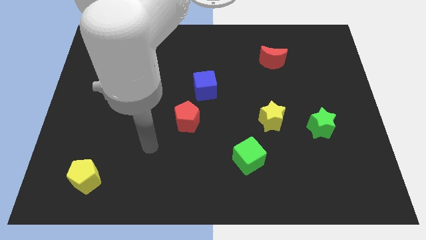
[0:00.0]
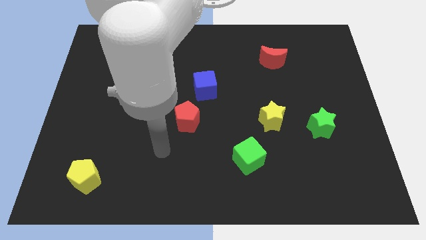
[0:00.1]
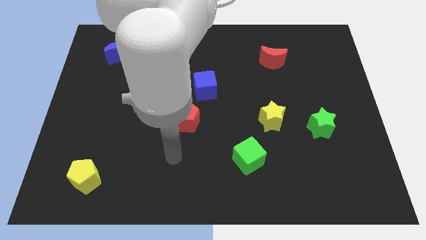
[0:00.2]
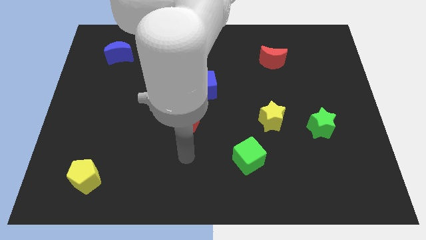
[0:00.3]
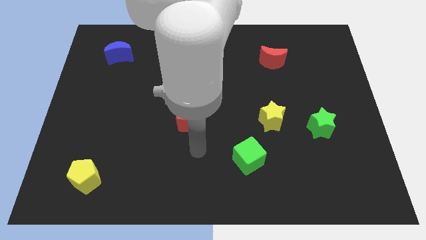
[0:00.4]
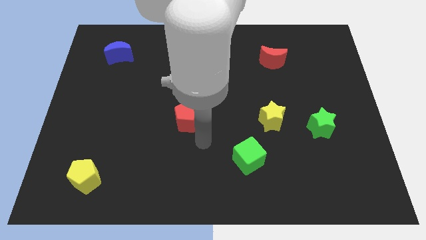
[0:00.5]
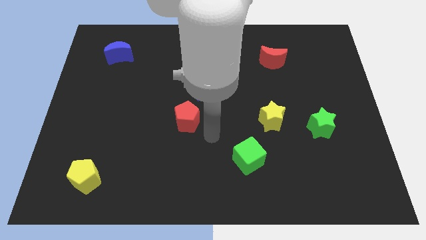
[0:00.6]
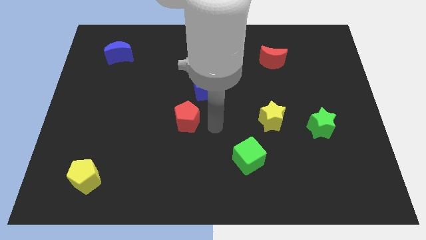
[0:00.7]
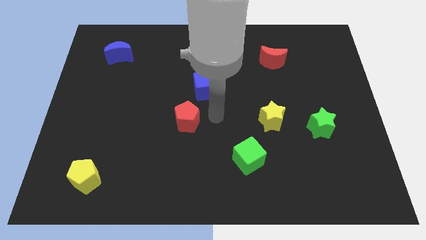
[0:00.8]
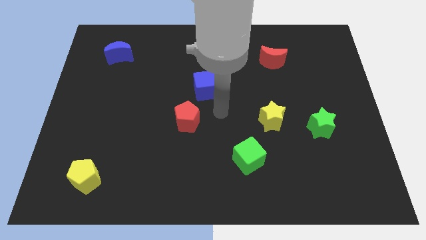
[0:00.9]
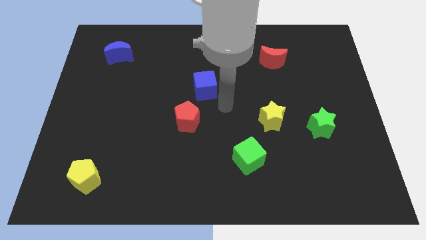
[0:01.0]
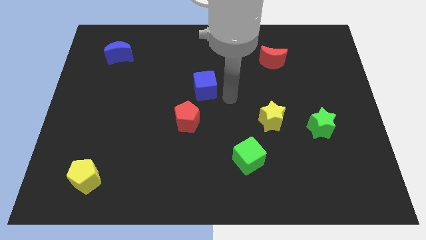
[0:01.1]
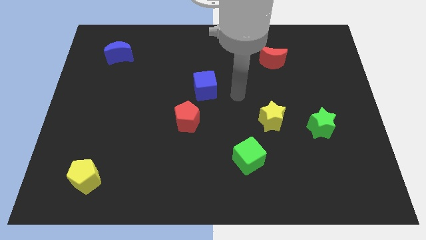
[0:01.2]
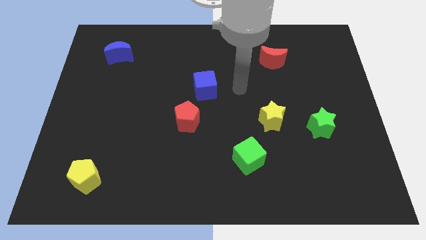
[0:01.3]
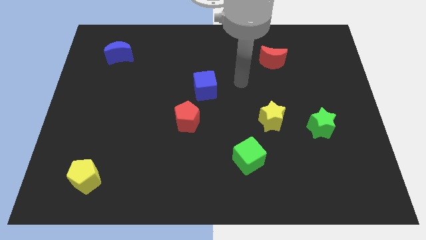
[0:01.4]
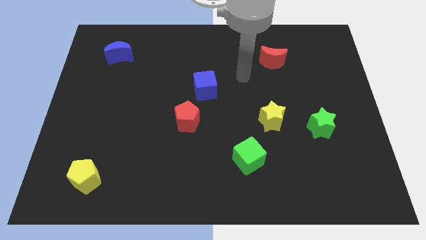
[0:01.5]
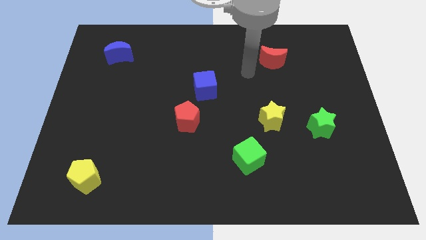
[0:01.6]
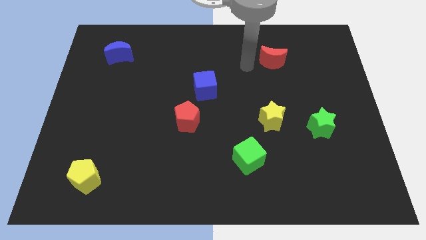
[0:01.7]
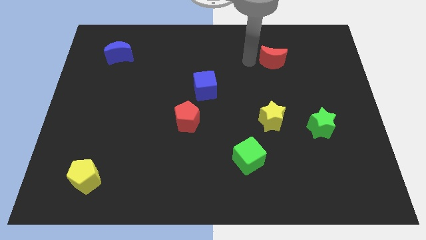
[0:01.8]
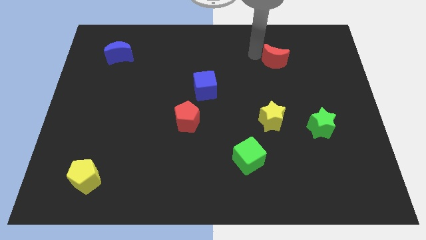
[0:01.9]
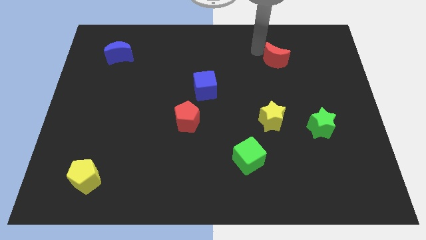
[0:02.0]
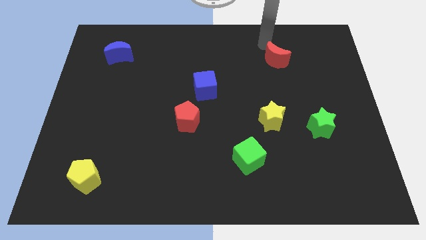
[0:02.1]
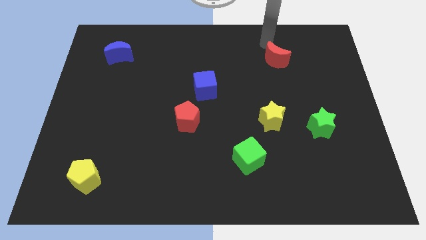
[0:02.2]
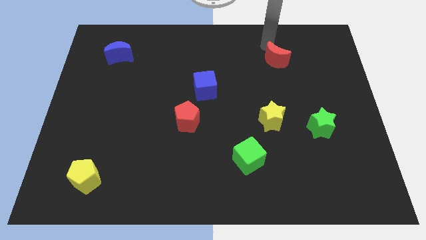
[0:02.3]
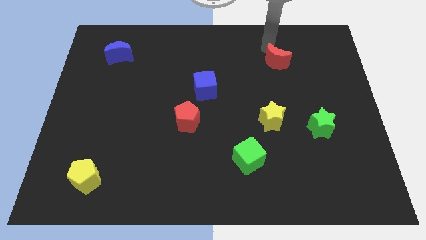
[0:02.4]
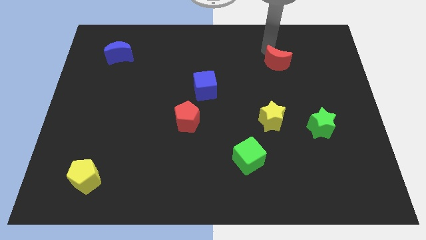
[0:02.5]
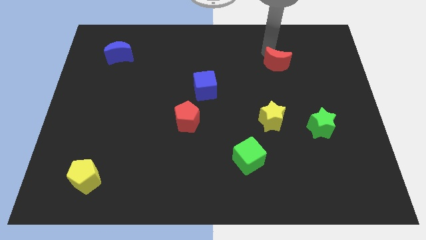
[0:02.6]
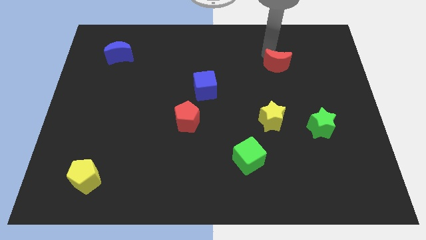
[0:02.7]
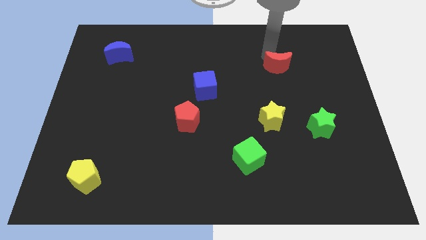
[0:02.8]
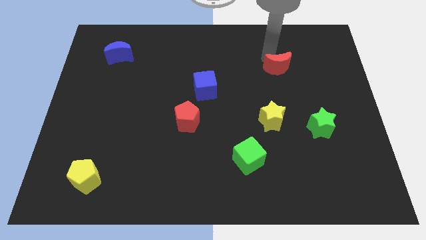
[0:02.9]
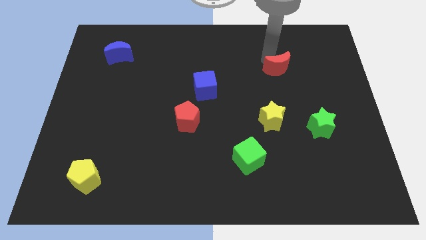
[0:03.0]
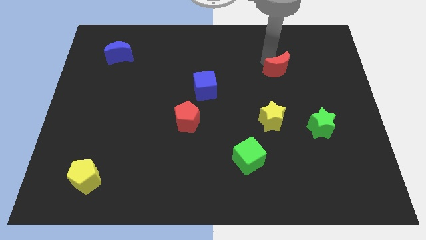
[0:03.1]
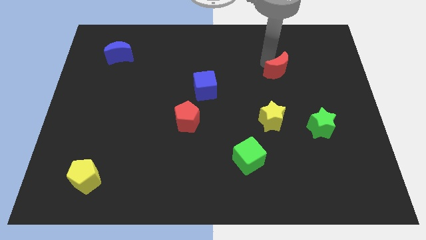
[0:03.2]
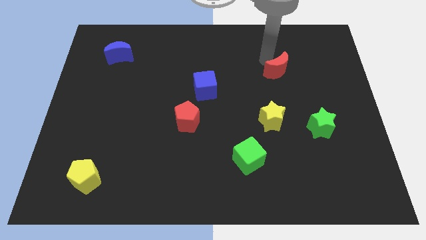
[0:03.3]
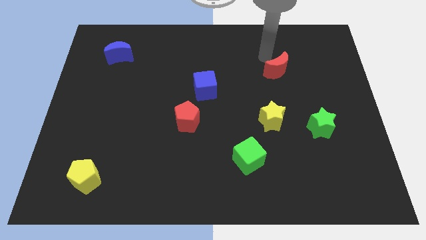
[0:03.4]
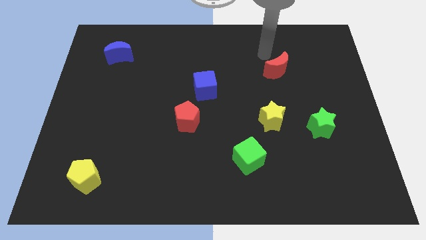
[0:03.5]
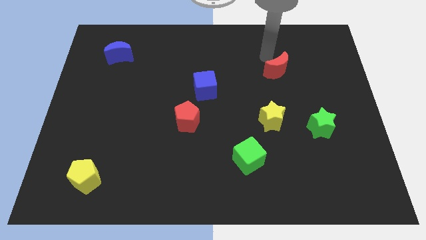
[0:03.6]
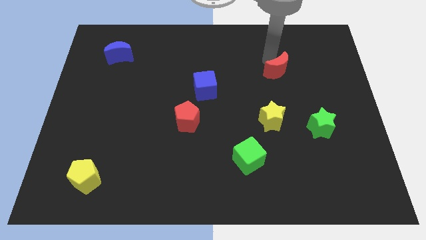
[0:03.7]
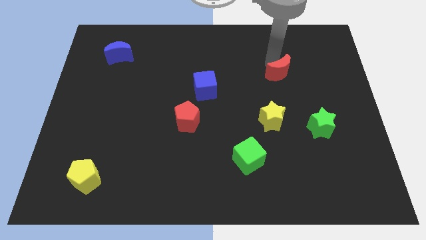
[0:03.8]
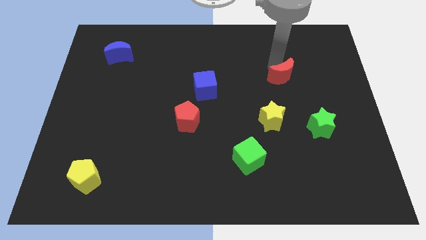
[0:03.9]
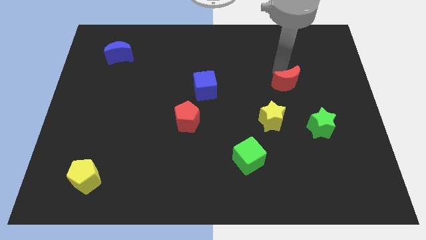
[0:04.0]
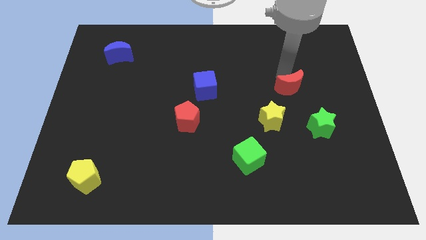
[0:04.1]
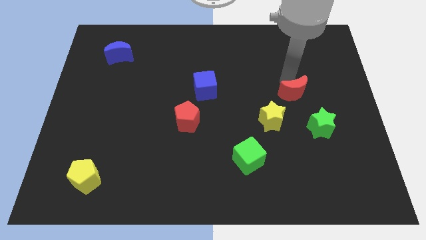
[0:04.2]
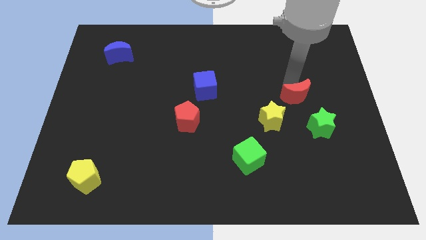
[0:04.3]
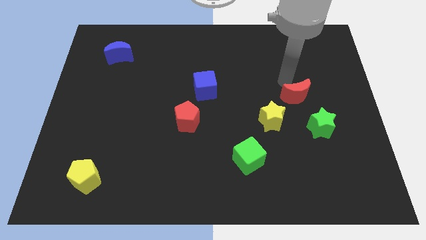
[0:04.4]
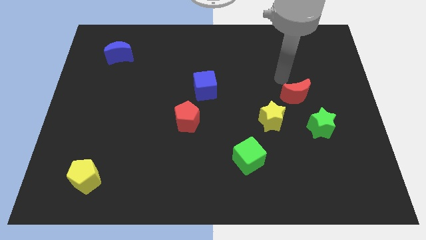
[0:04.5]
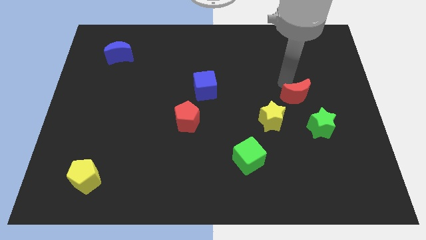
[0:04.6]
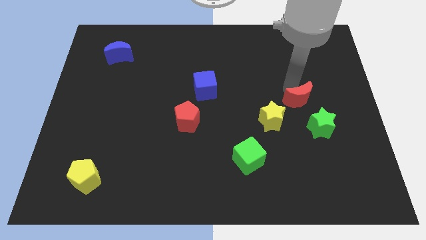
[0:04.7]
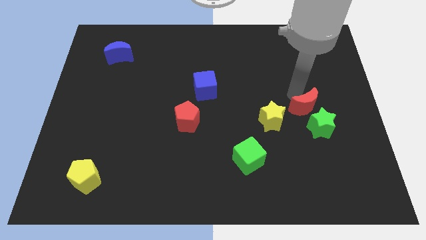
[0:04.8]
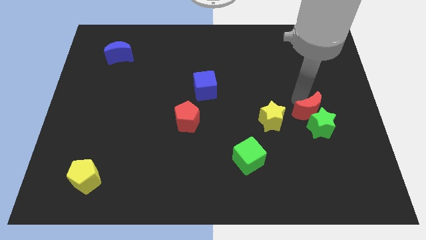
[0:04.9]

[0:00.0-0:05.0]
put the red moon close to the green star

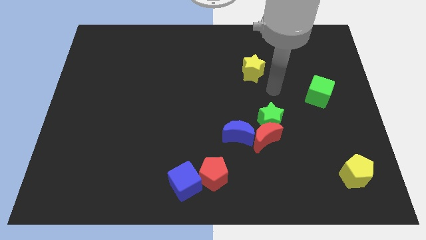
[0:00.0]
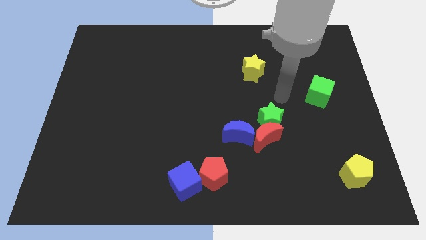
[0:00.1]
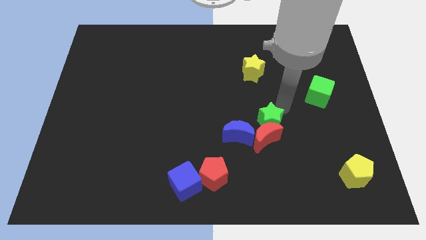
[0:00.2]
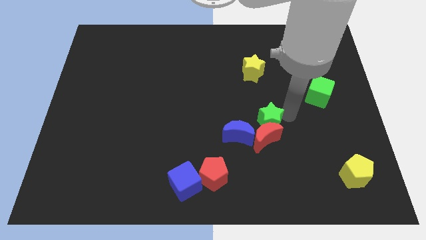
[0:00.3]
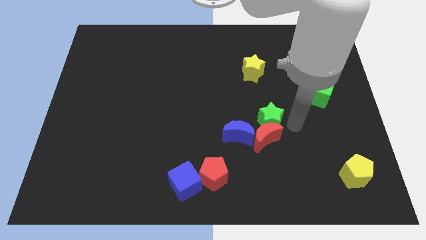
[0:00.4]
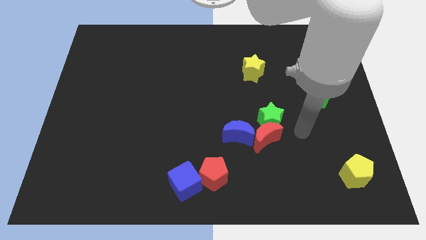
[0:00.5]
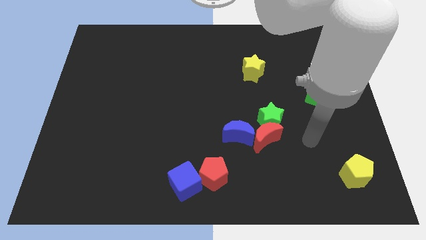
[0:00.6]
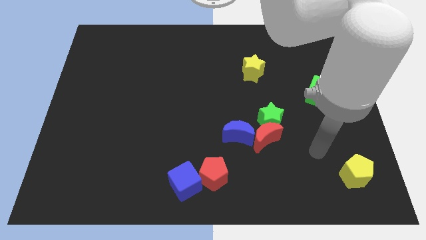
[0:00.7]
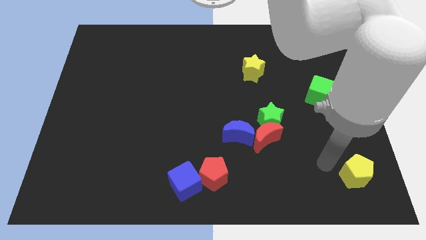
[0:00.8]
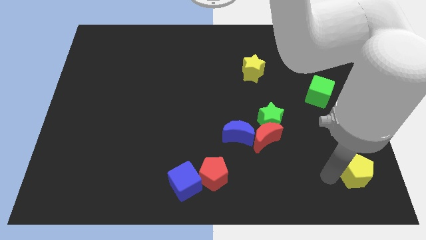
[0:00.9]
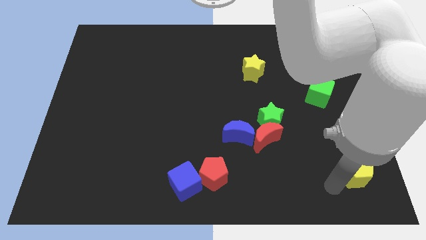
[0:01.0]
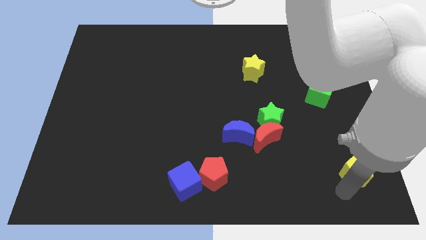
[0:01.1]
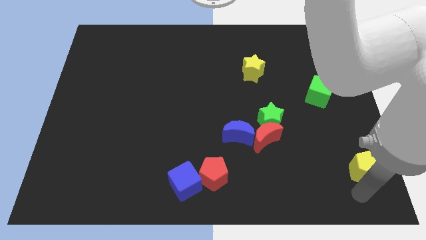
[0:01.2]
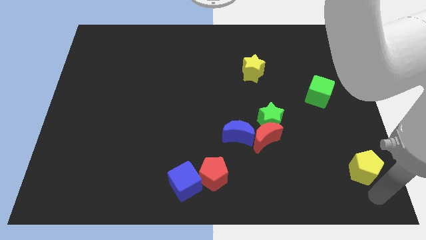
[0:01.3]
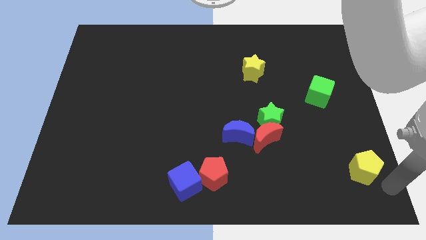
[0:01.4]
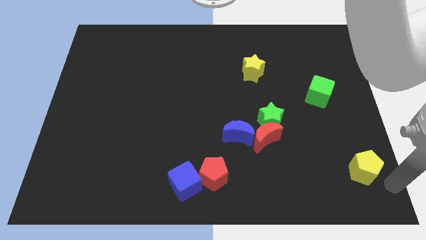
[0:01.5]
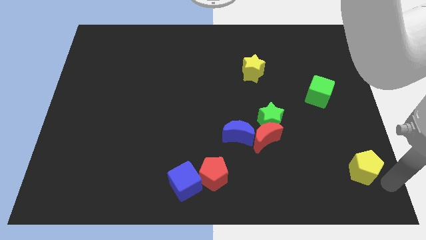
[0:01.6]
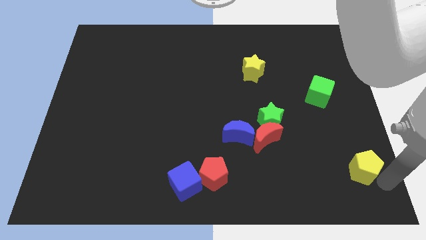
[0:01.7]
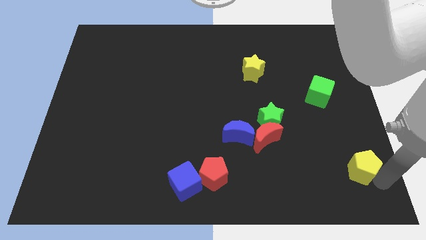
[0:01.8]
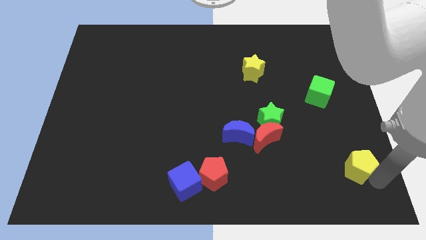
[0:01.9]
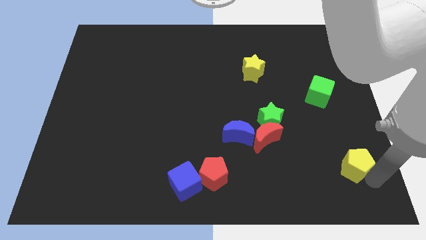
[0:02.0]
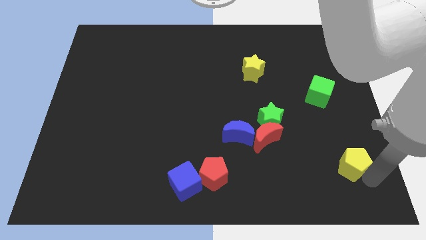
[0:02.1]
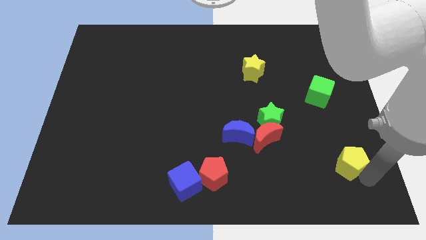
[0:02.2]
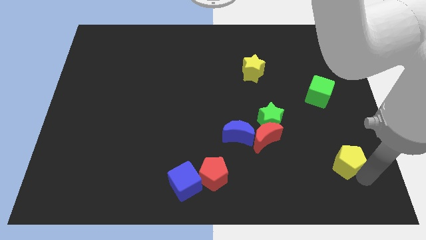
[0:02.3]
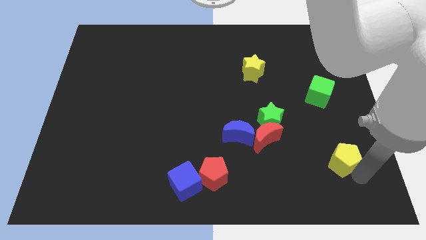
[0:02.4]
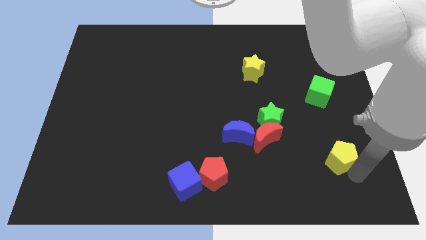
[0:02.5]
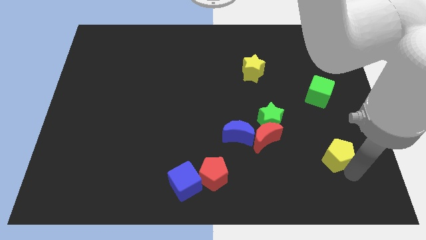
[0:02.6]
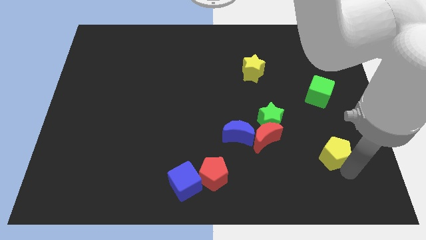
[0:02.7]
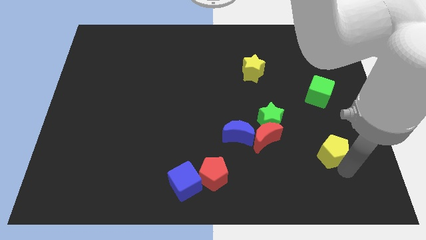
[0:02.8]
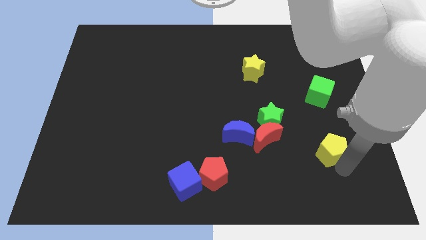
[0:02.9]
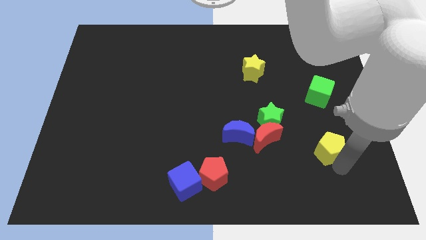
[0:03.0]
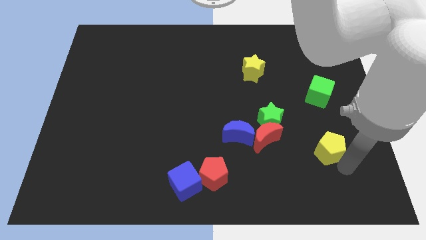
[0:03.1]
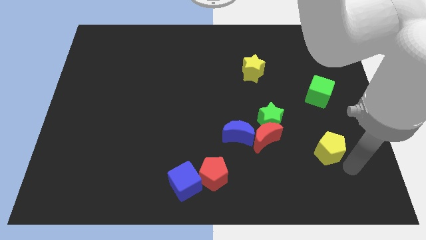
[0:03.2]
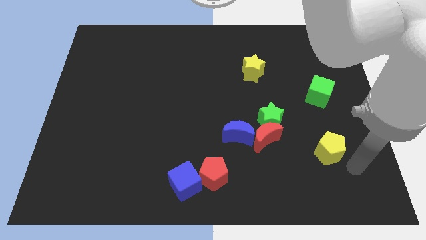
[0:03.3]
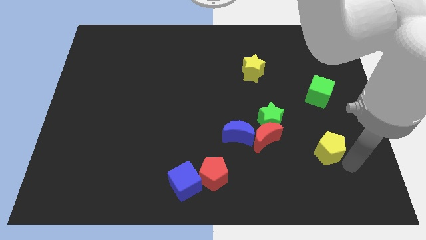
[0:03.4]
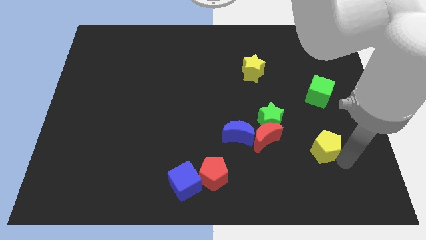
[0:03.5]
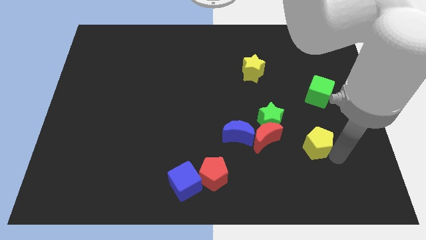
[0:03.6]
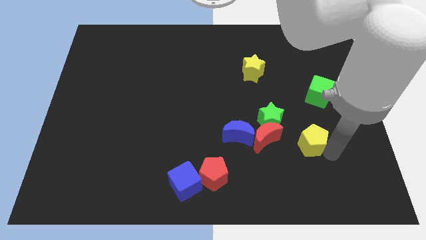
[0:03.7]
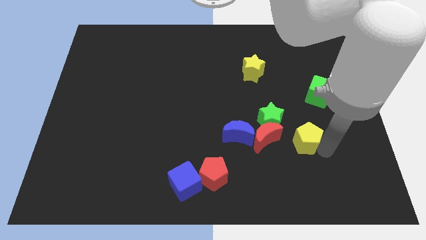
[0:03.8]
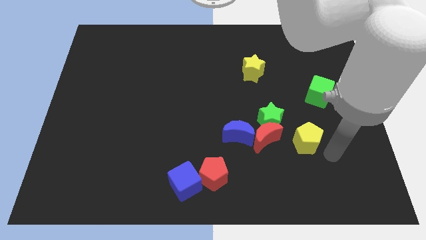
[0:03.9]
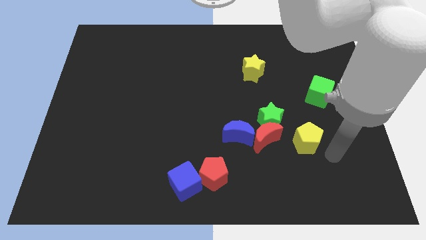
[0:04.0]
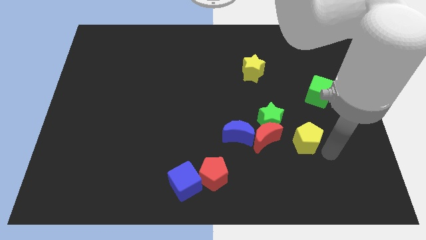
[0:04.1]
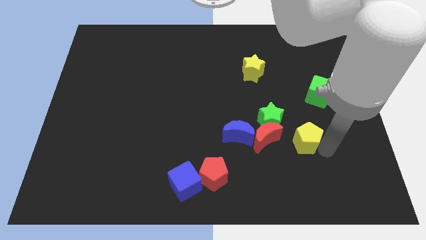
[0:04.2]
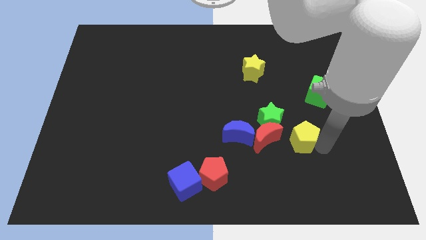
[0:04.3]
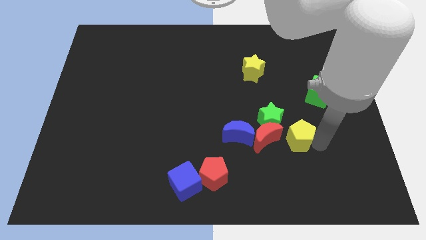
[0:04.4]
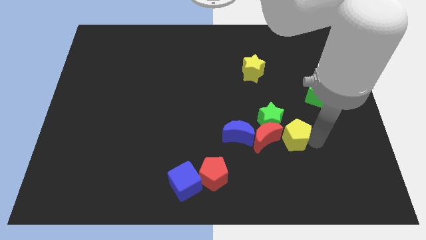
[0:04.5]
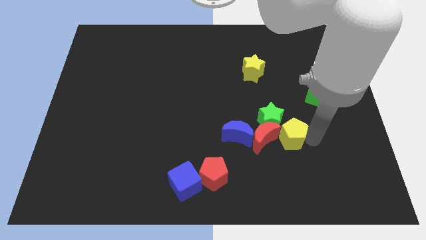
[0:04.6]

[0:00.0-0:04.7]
push the yellow pentagon to the green star
